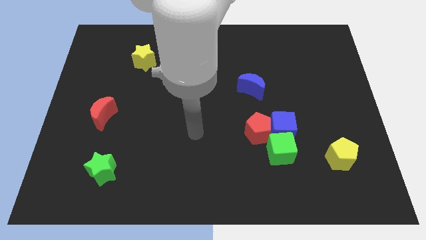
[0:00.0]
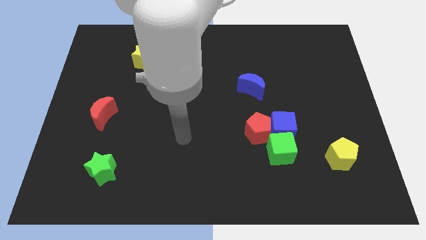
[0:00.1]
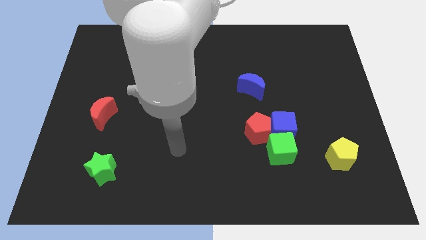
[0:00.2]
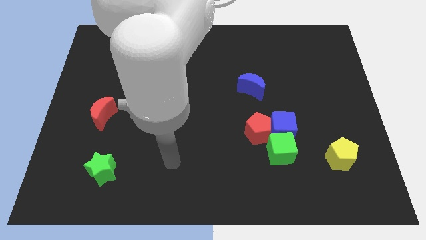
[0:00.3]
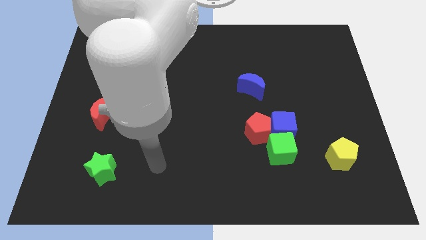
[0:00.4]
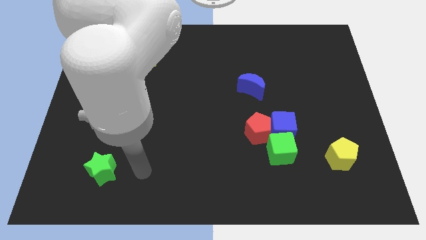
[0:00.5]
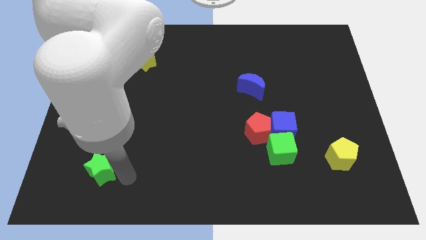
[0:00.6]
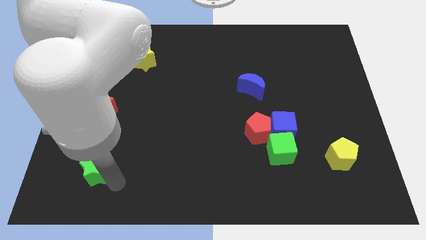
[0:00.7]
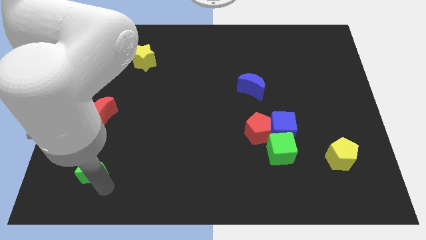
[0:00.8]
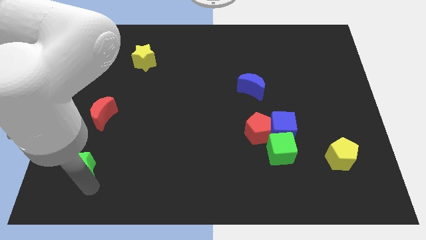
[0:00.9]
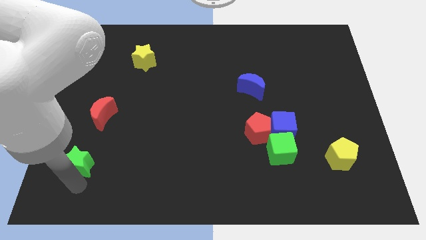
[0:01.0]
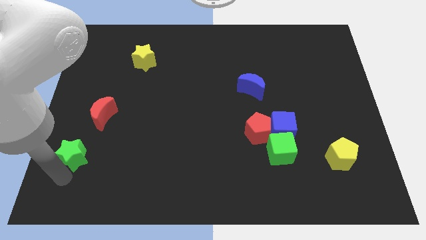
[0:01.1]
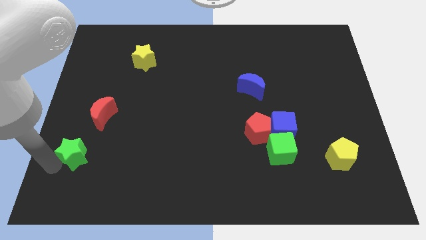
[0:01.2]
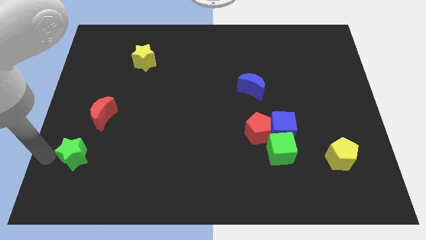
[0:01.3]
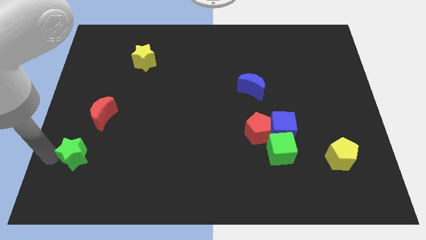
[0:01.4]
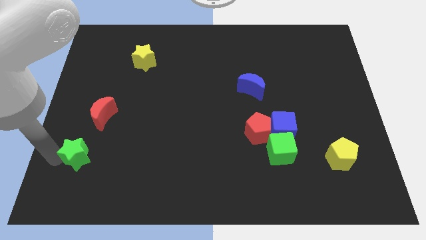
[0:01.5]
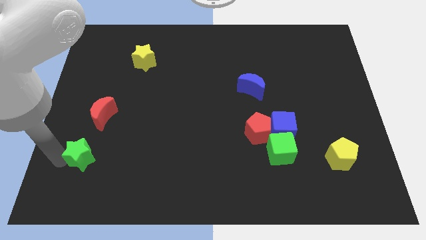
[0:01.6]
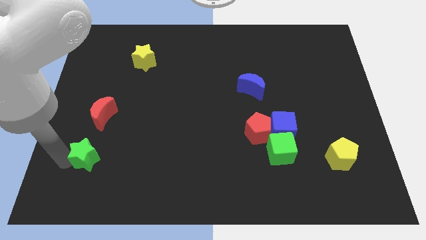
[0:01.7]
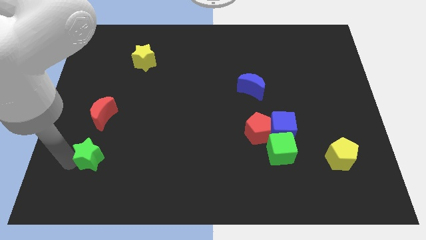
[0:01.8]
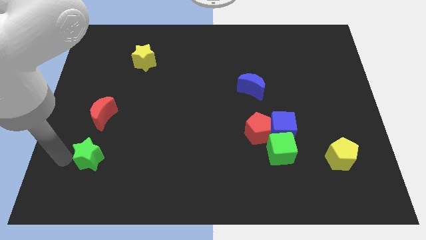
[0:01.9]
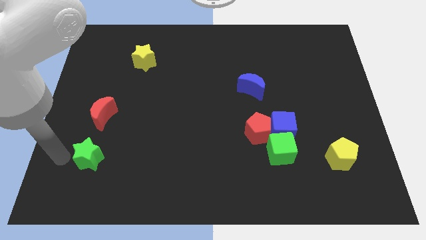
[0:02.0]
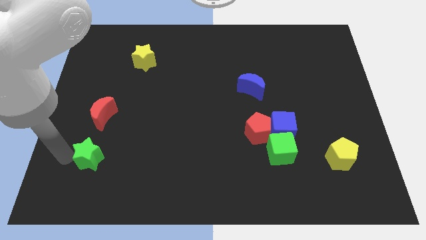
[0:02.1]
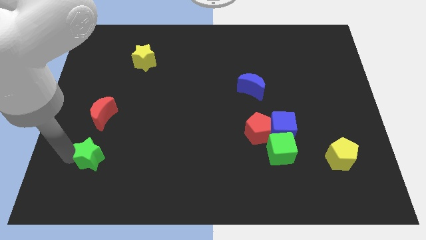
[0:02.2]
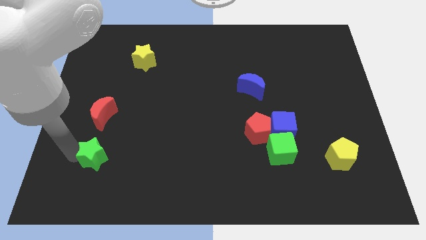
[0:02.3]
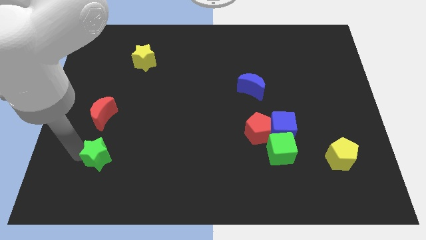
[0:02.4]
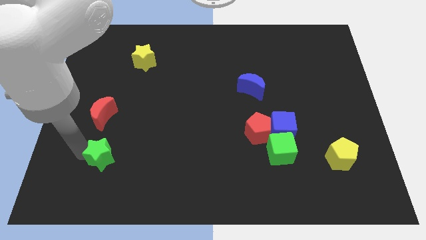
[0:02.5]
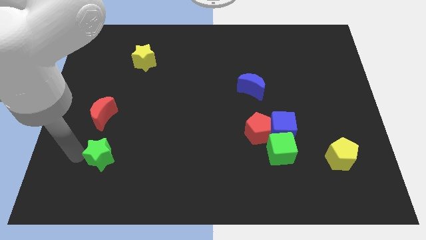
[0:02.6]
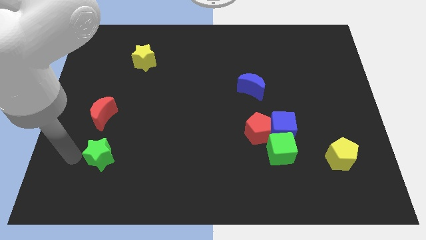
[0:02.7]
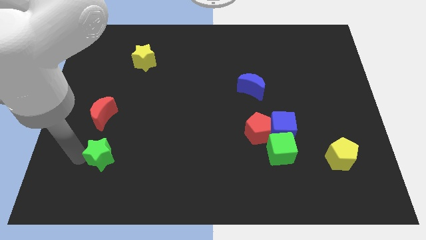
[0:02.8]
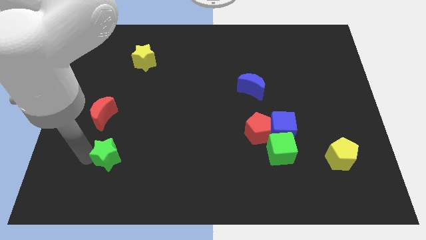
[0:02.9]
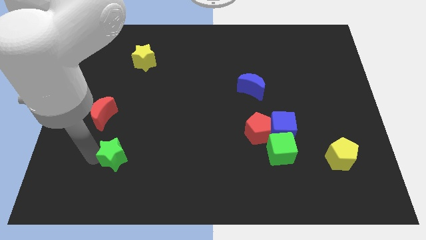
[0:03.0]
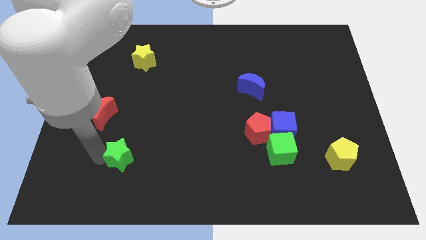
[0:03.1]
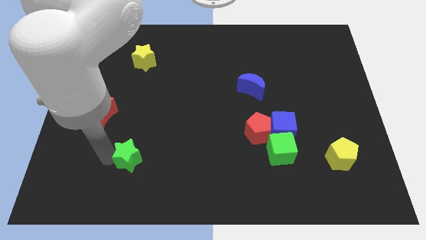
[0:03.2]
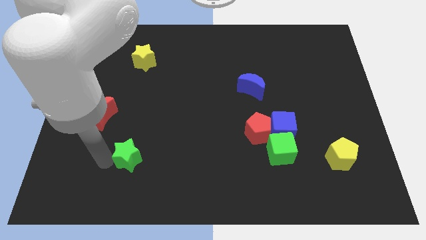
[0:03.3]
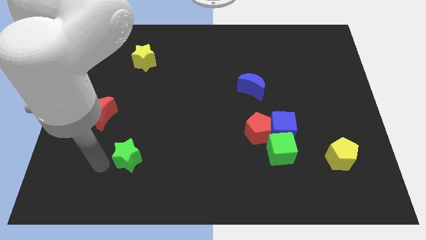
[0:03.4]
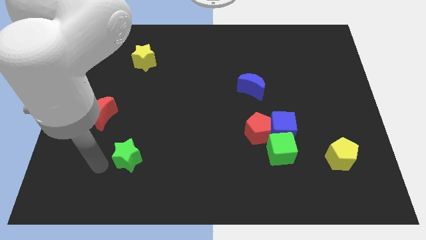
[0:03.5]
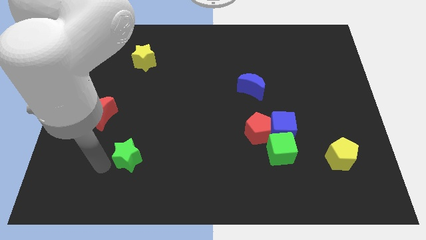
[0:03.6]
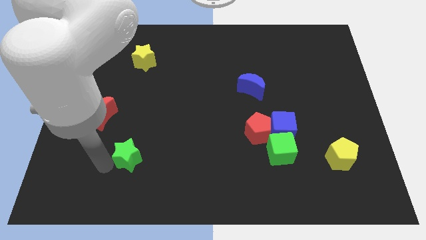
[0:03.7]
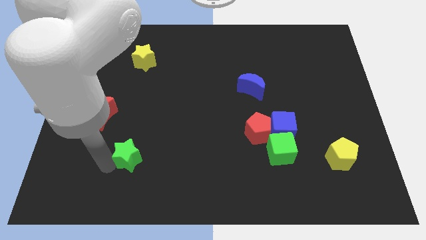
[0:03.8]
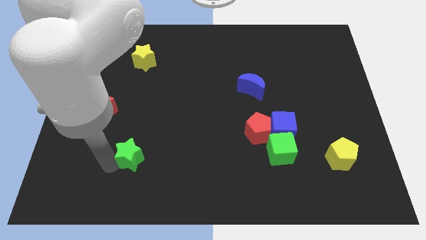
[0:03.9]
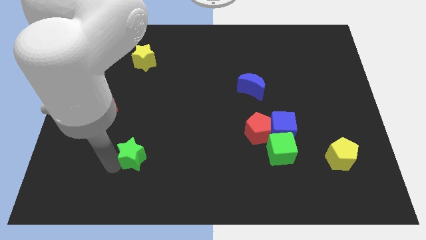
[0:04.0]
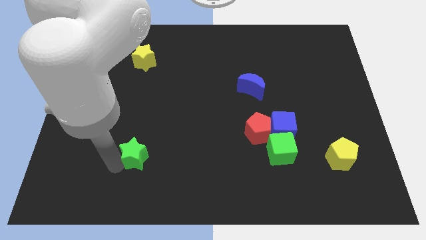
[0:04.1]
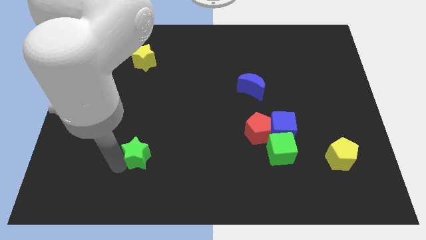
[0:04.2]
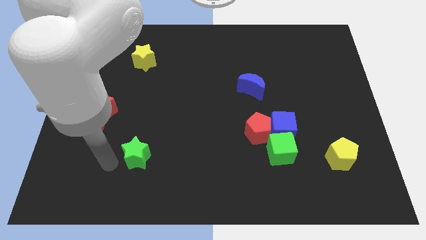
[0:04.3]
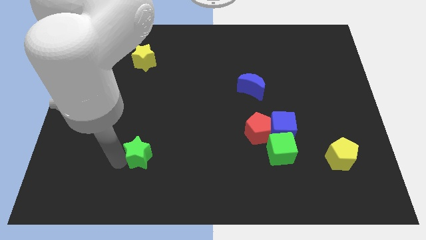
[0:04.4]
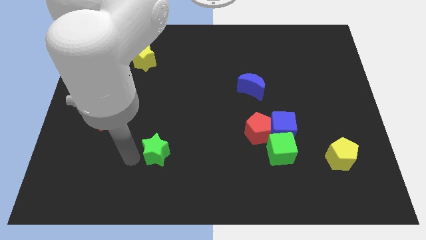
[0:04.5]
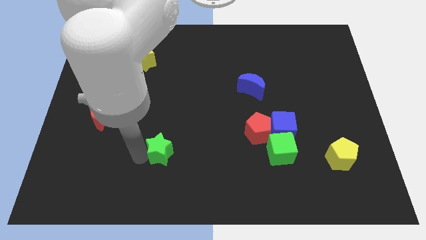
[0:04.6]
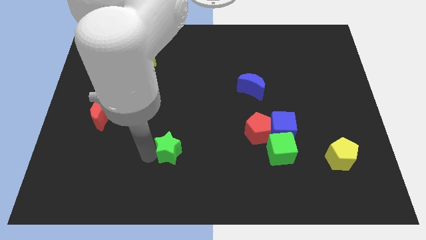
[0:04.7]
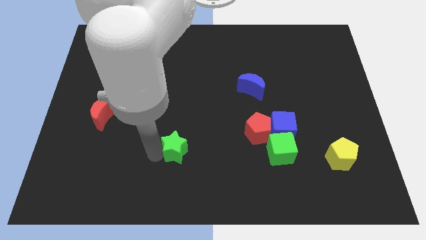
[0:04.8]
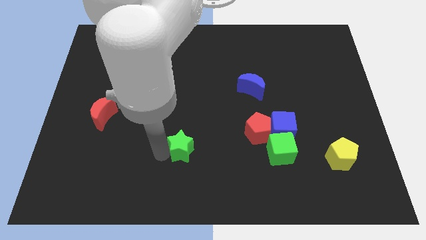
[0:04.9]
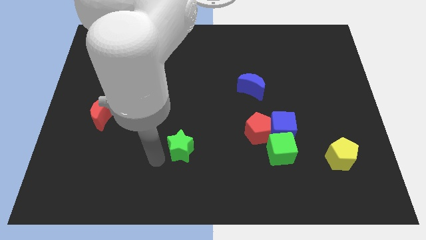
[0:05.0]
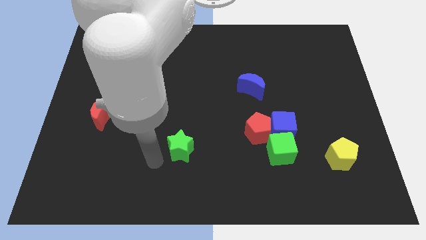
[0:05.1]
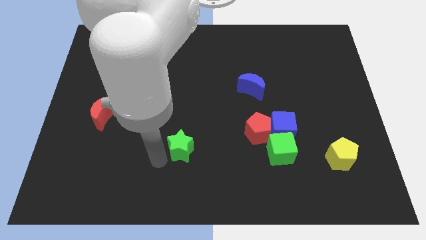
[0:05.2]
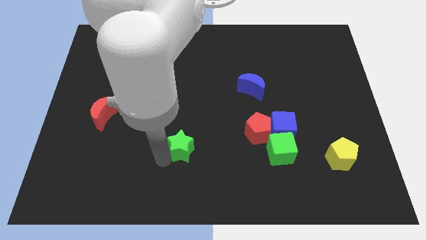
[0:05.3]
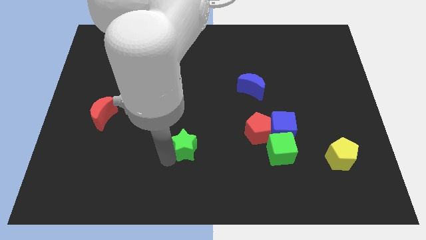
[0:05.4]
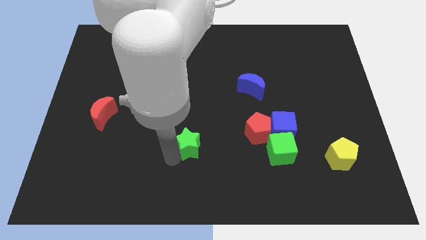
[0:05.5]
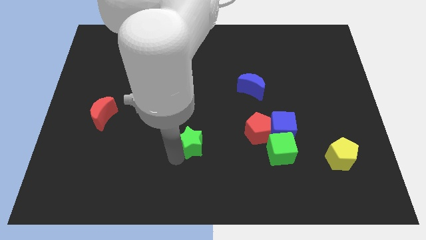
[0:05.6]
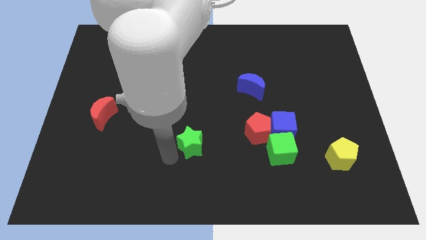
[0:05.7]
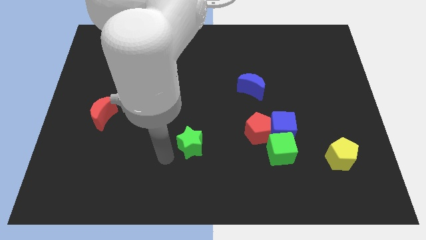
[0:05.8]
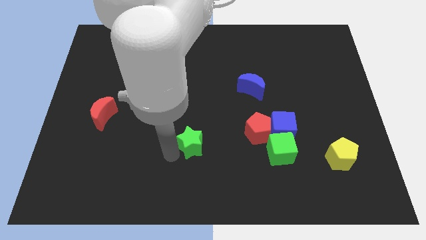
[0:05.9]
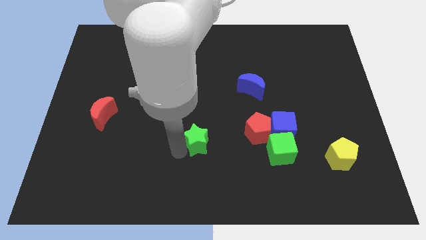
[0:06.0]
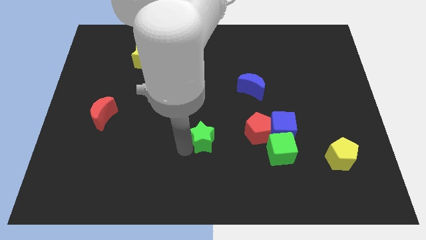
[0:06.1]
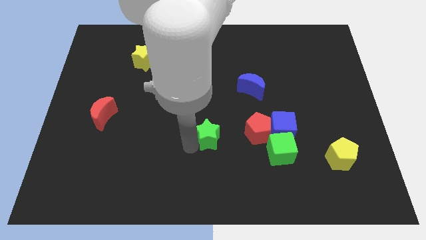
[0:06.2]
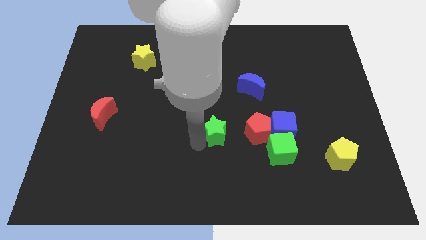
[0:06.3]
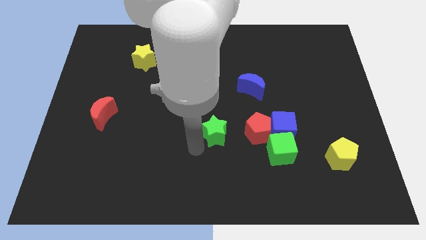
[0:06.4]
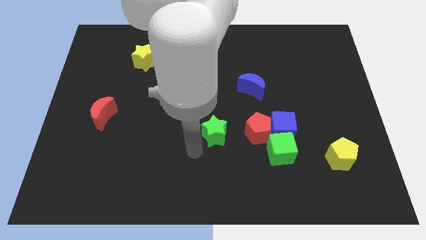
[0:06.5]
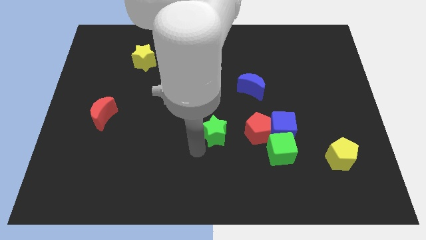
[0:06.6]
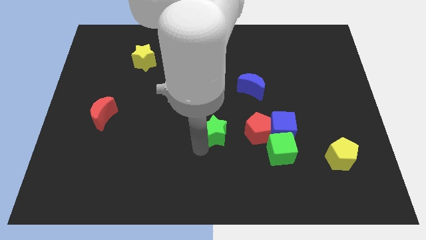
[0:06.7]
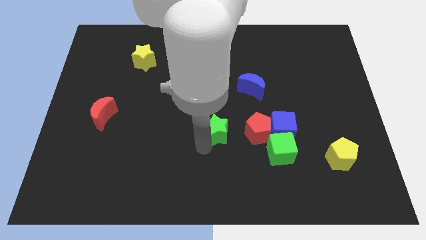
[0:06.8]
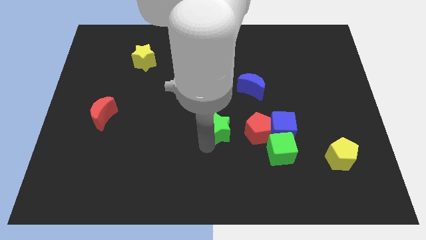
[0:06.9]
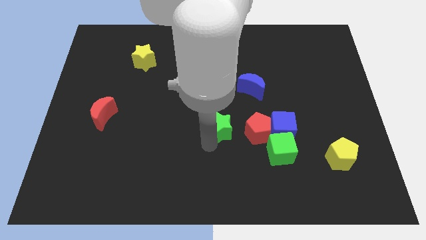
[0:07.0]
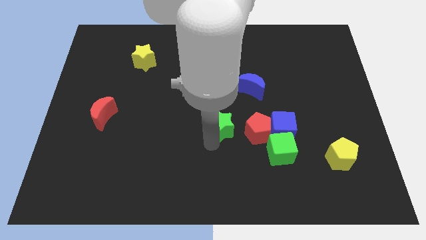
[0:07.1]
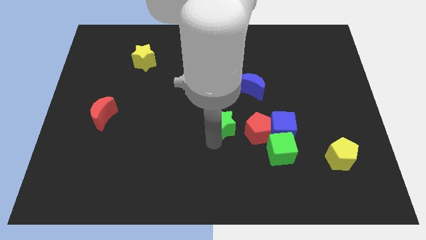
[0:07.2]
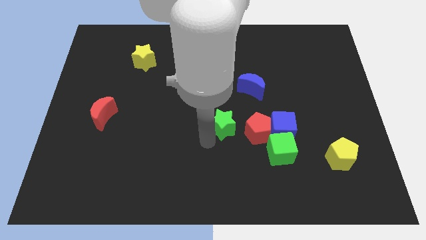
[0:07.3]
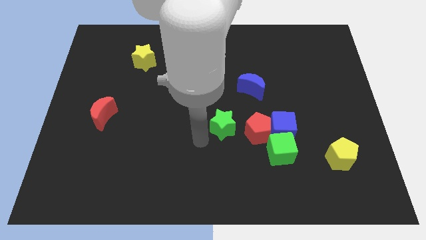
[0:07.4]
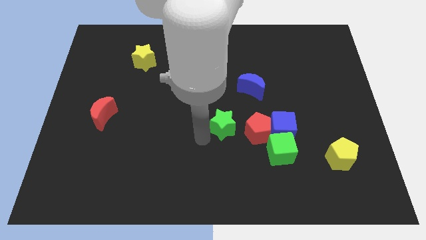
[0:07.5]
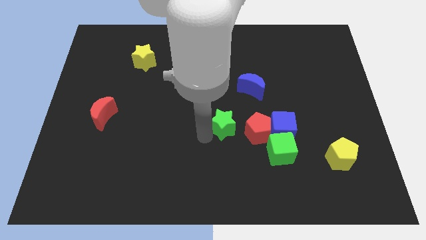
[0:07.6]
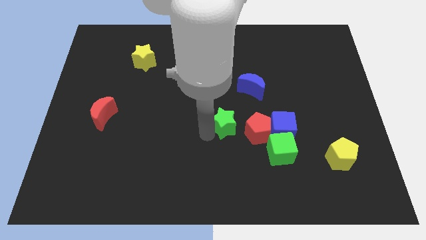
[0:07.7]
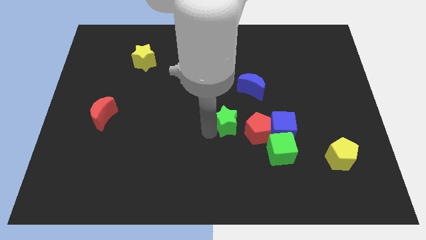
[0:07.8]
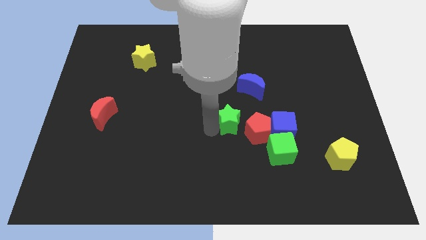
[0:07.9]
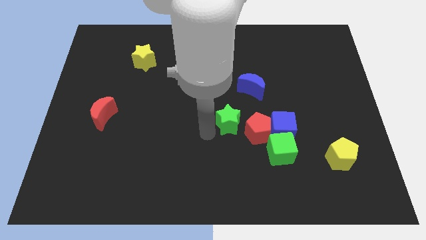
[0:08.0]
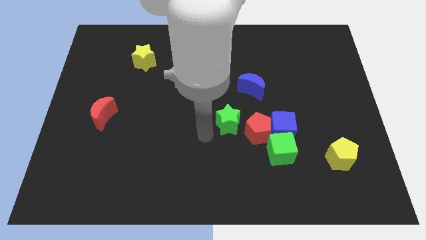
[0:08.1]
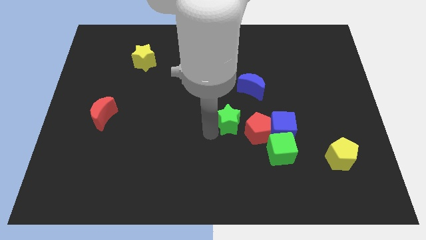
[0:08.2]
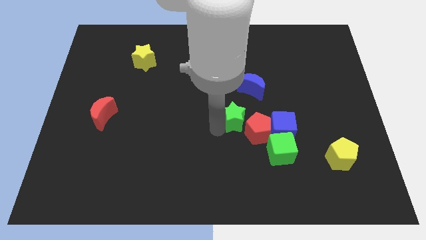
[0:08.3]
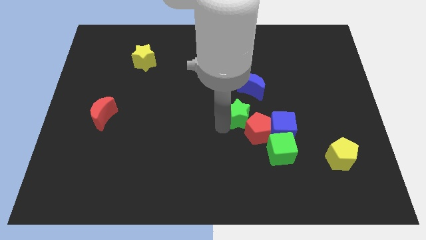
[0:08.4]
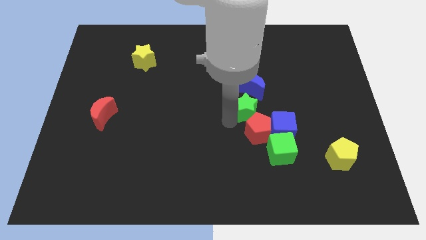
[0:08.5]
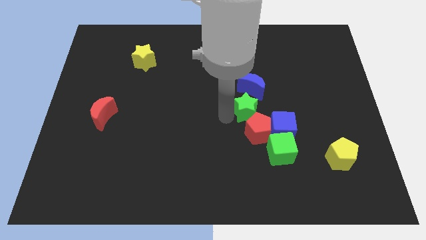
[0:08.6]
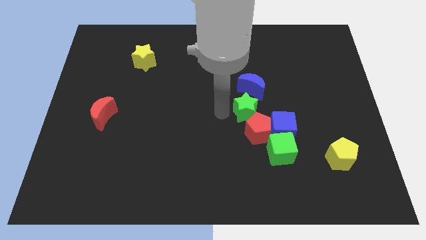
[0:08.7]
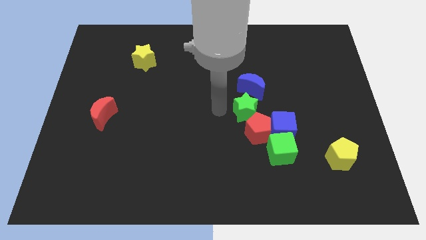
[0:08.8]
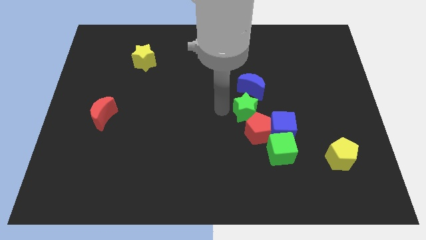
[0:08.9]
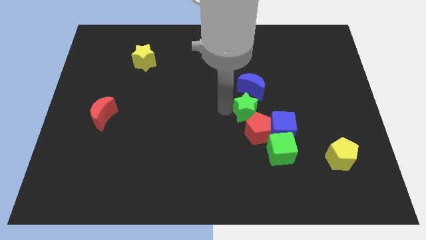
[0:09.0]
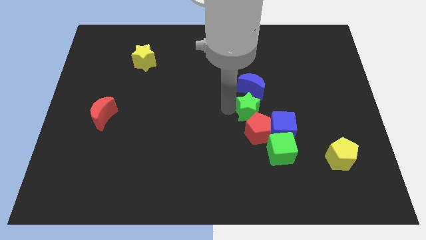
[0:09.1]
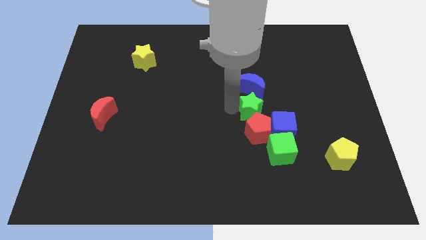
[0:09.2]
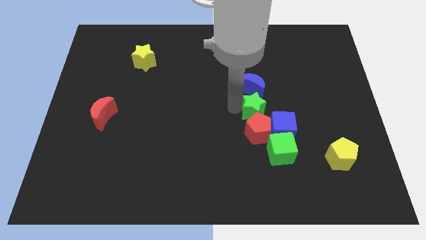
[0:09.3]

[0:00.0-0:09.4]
slide the green star above the green cube
